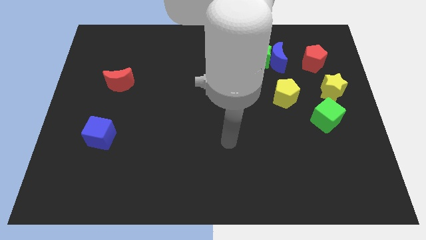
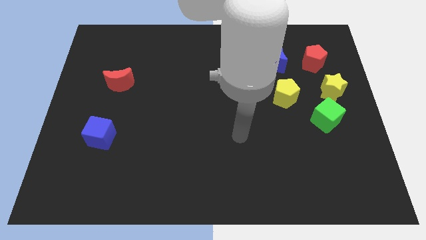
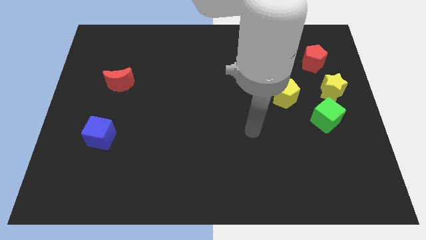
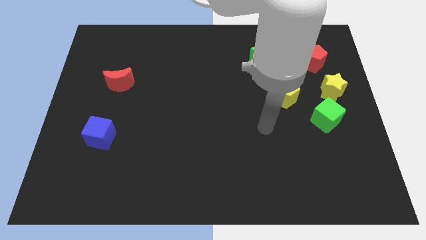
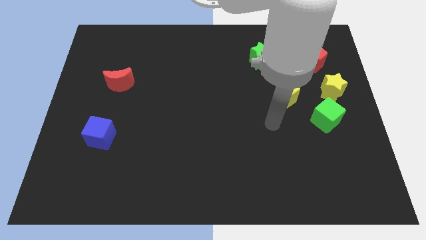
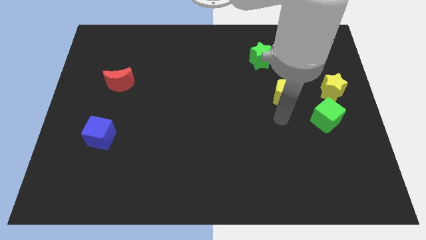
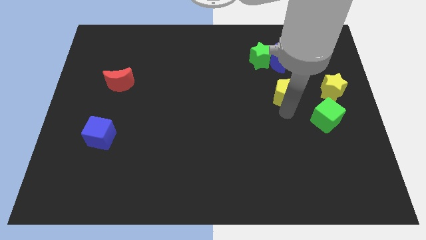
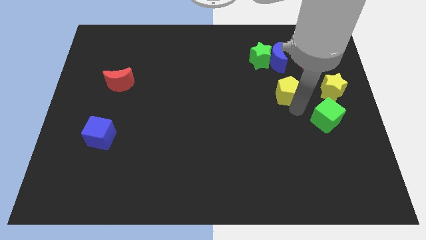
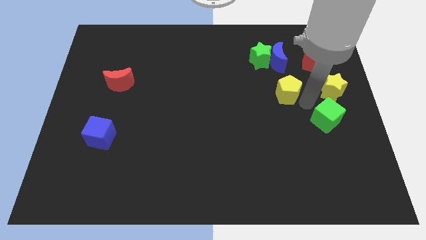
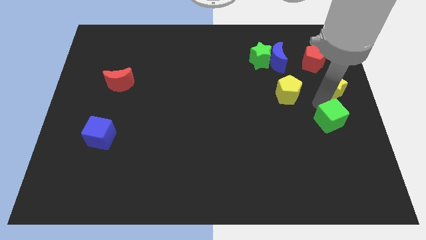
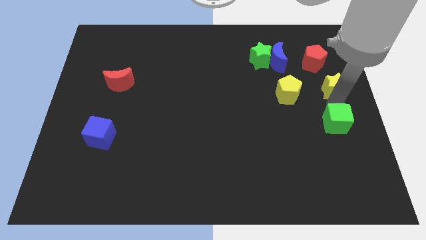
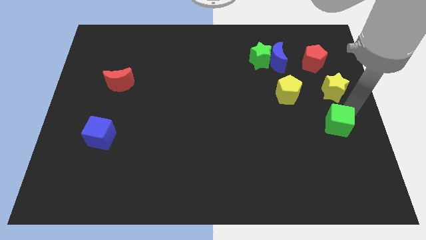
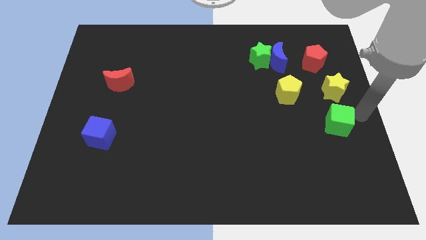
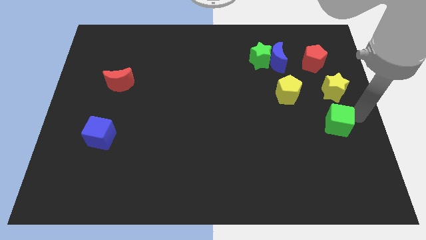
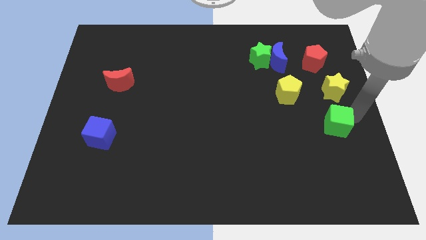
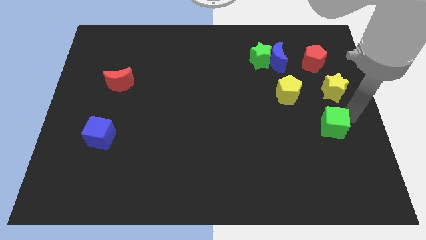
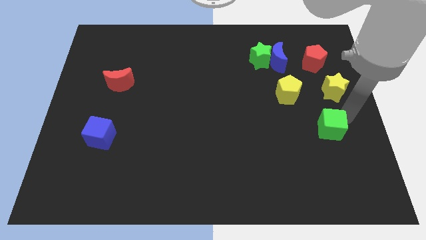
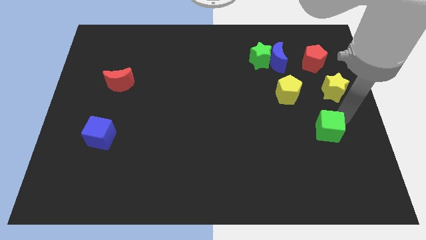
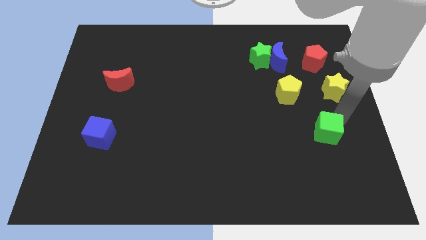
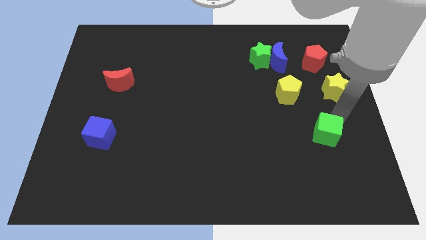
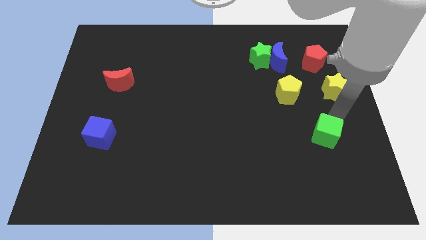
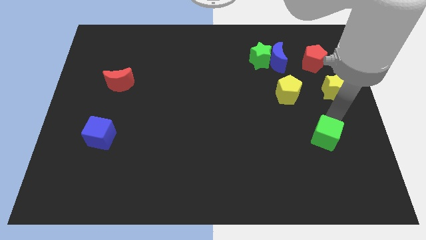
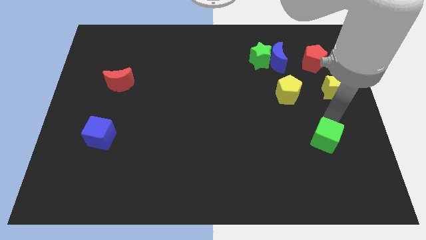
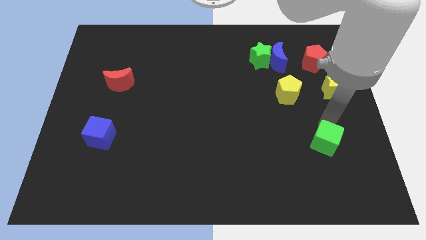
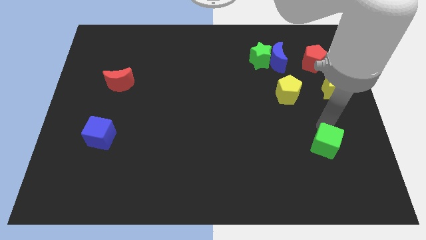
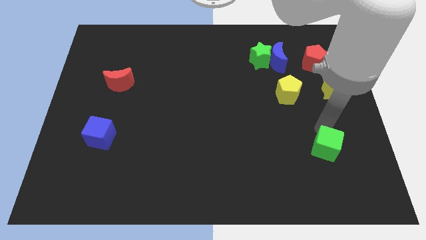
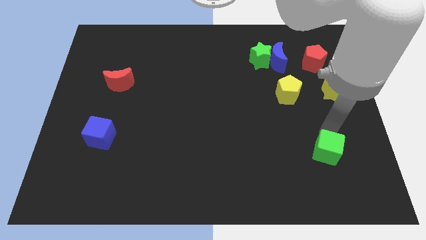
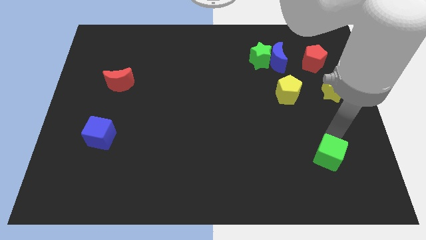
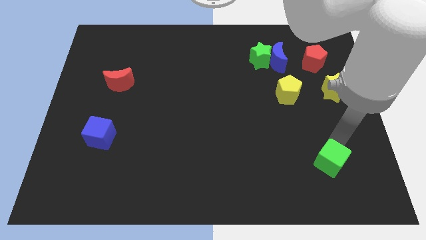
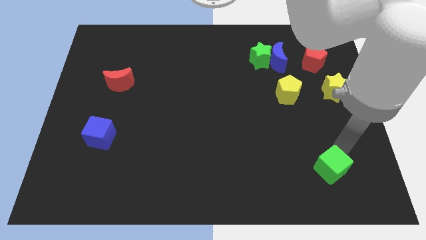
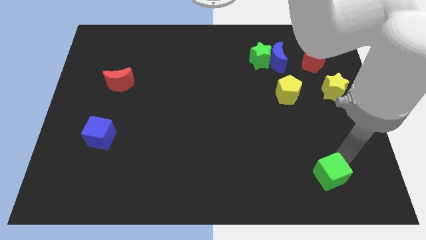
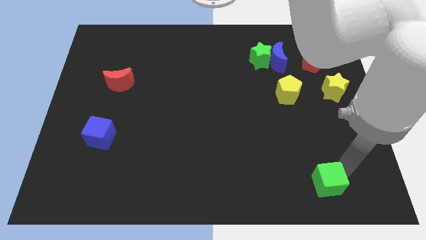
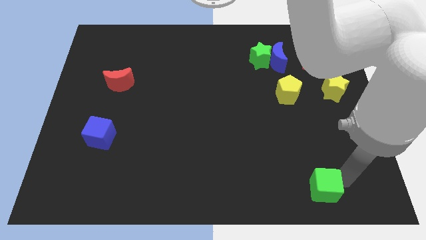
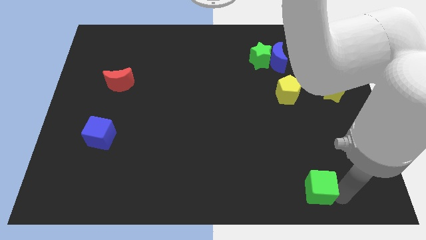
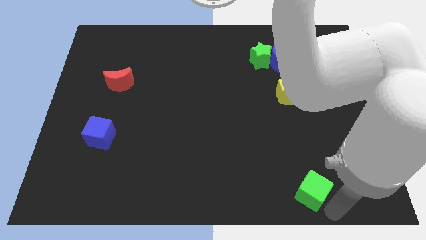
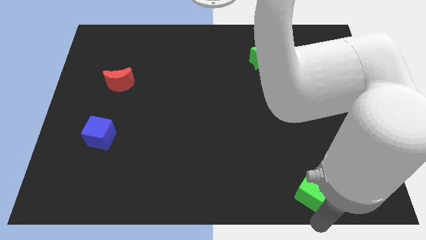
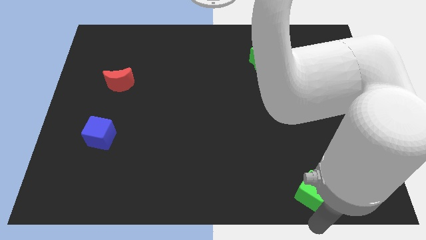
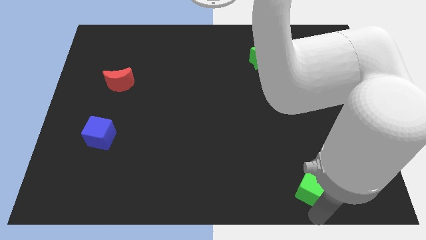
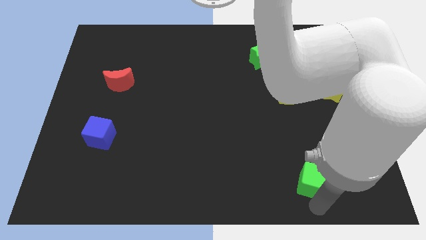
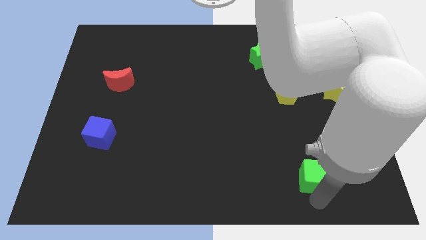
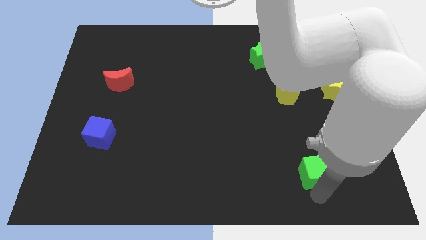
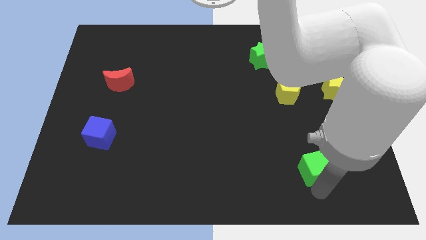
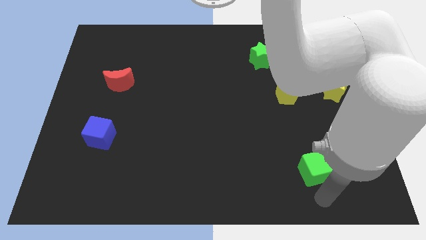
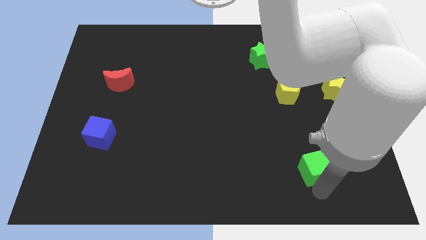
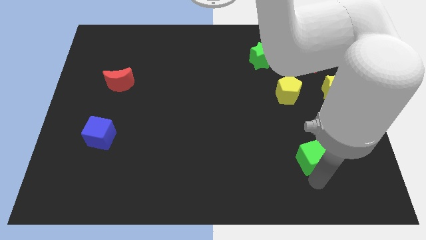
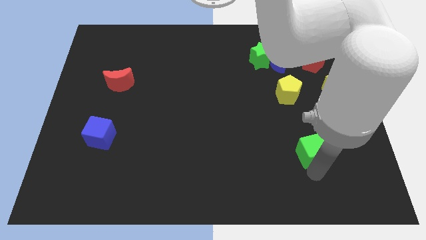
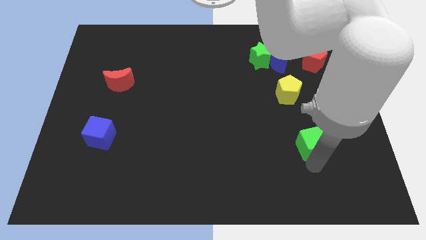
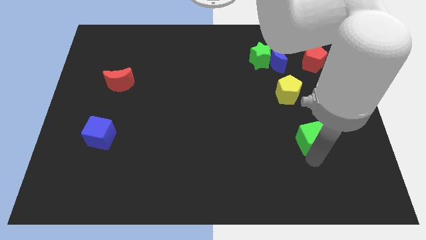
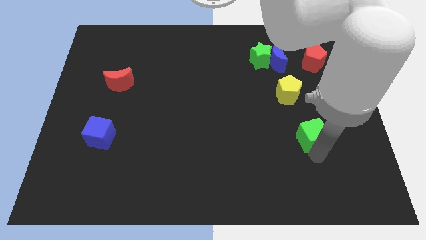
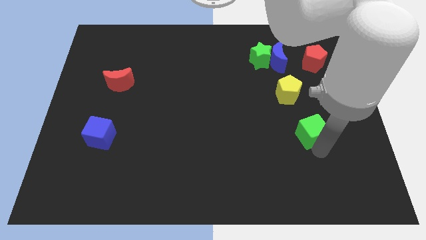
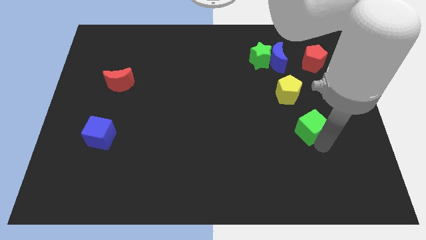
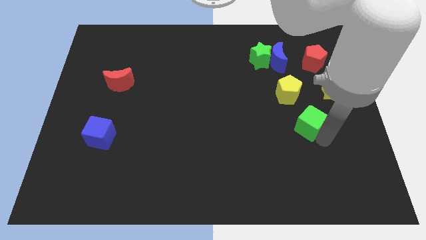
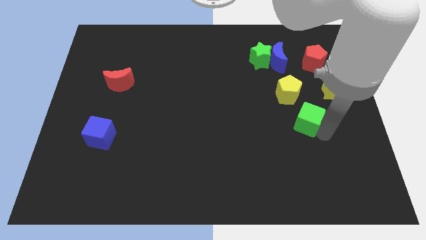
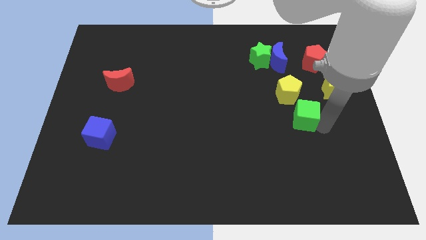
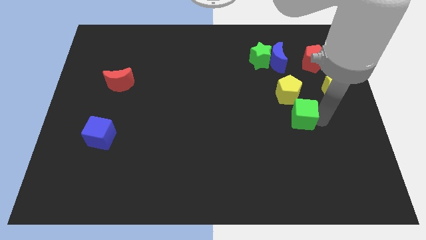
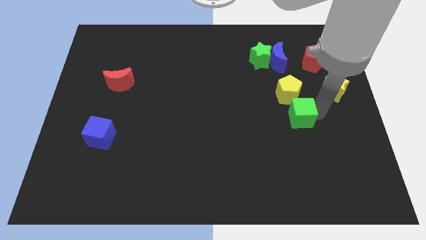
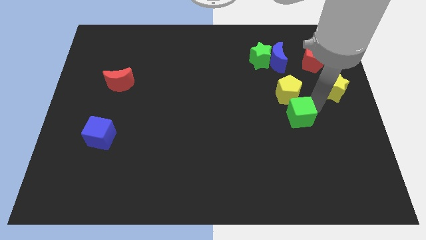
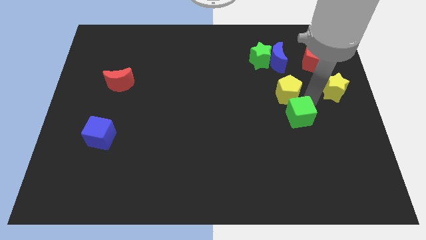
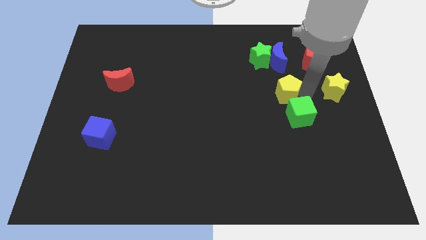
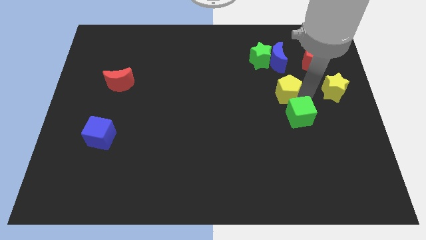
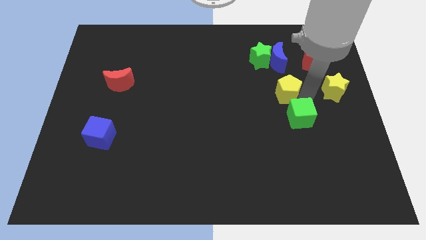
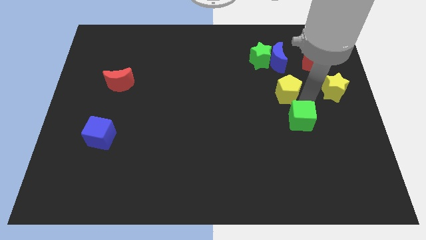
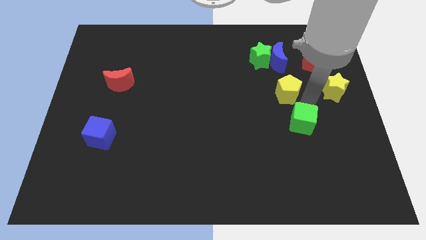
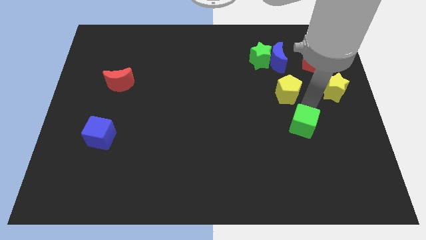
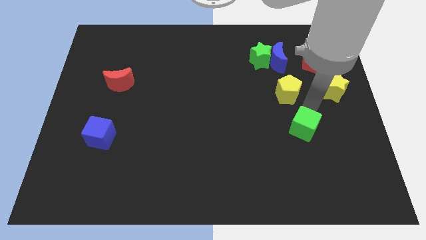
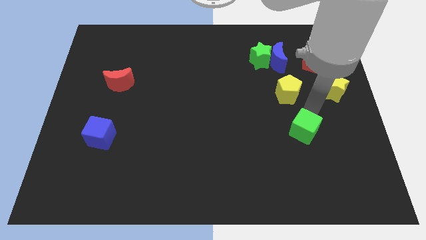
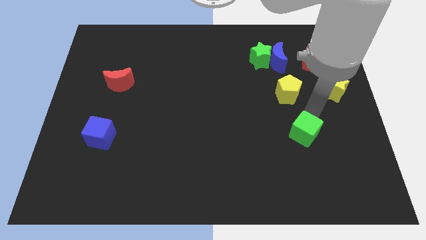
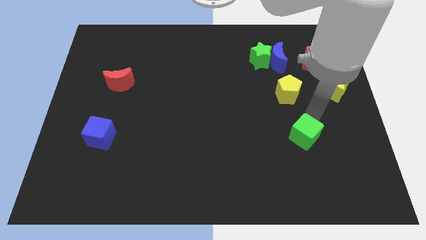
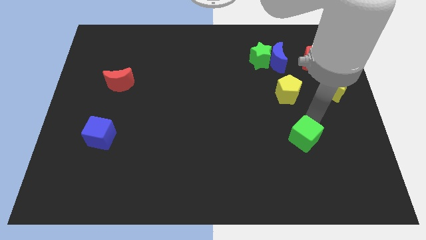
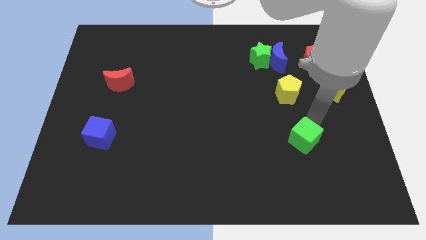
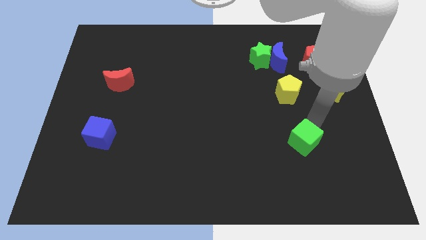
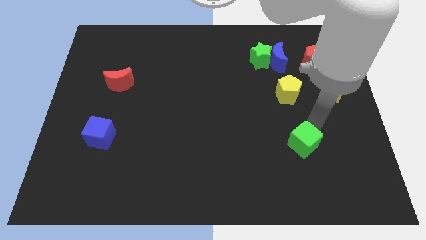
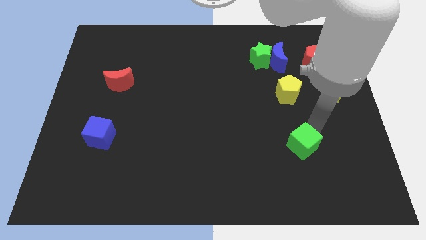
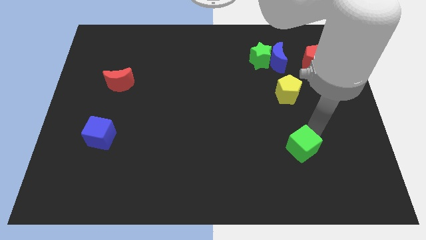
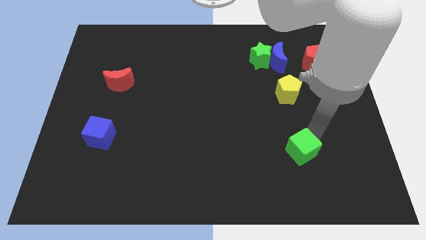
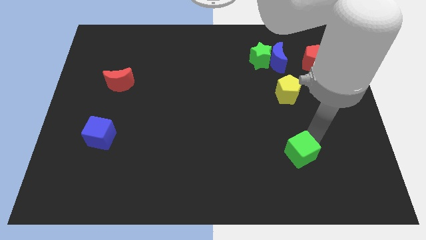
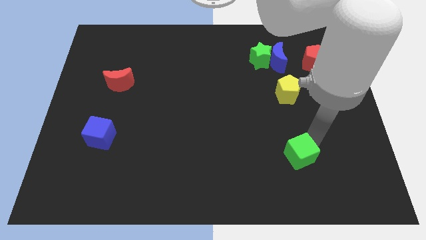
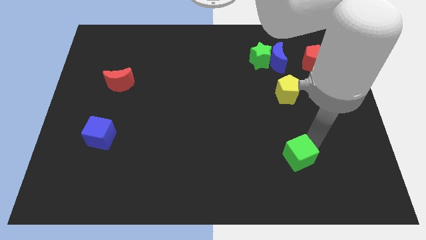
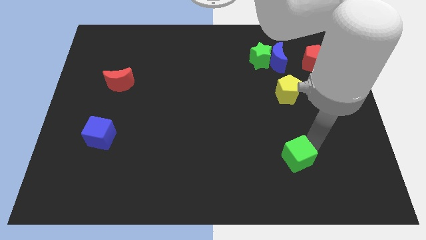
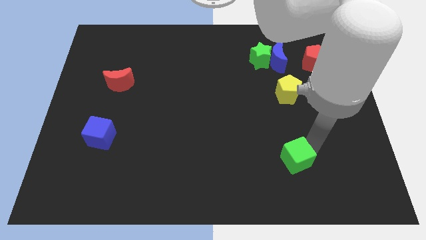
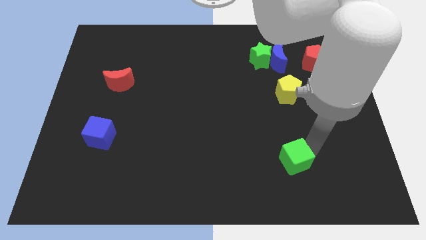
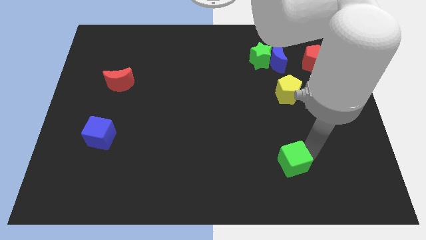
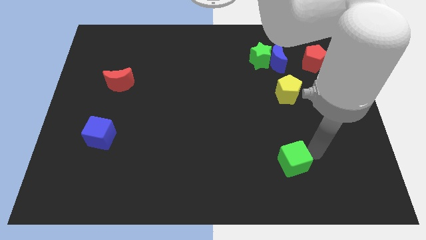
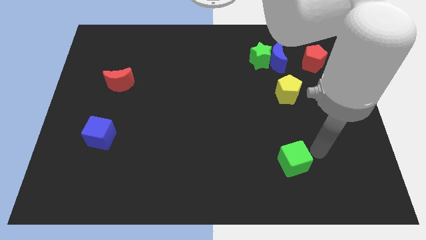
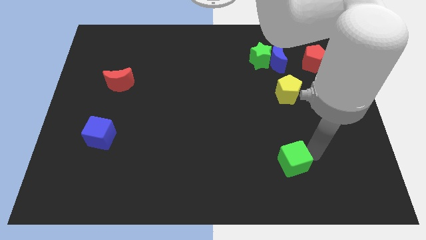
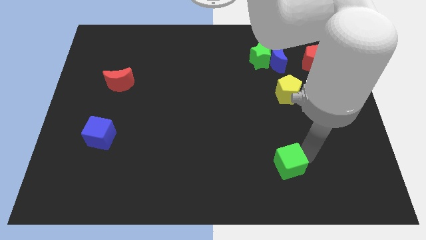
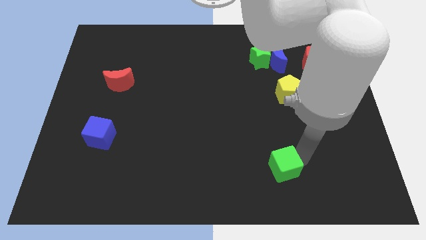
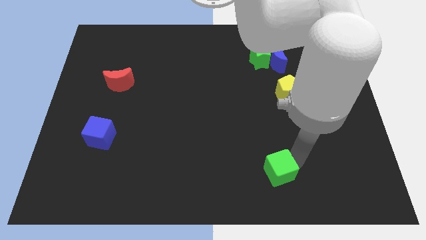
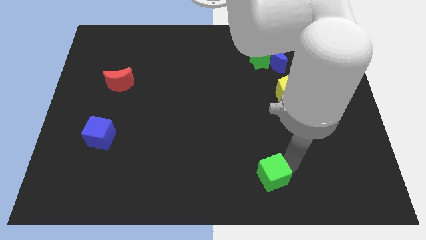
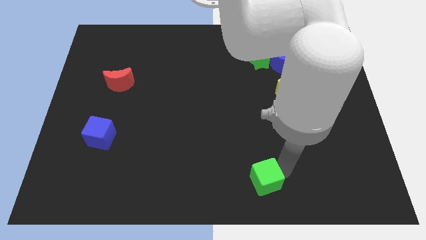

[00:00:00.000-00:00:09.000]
move the green cube to the bottom side
